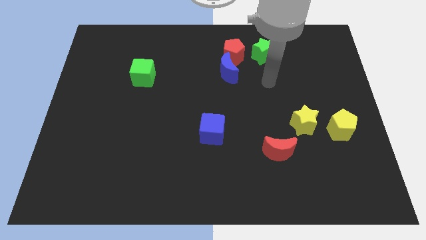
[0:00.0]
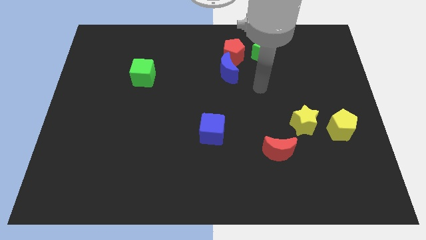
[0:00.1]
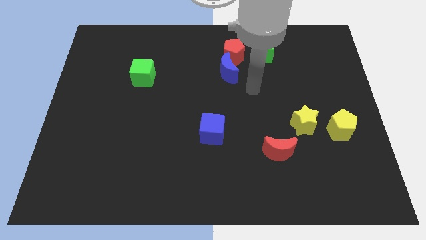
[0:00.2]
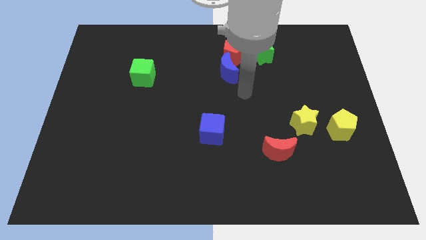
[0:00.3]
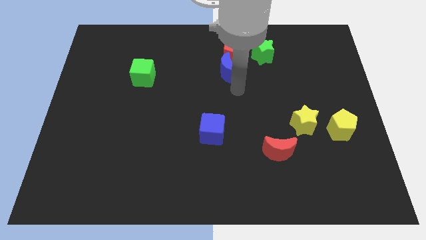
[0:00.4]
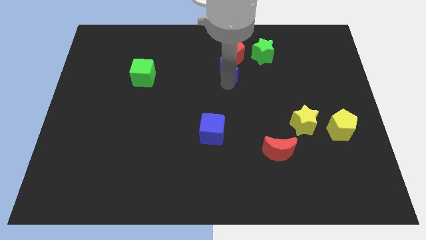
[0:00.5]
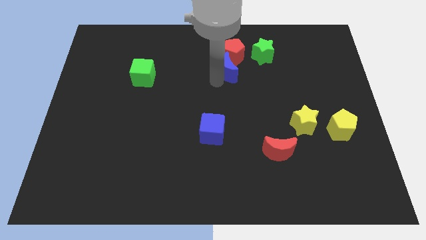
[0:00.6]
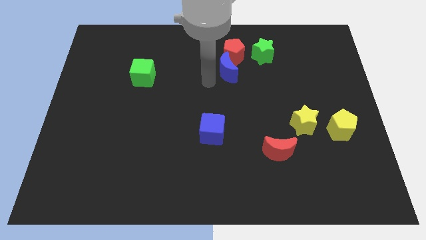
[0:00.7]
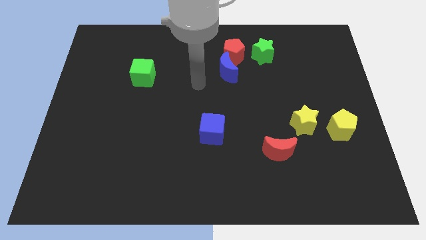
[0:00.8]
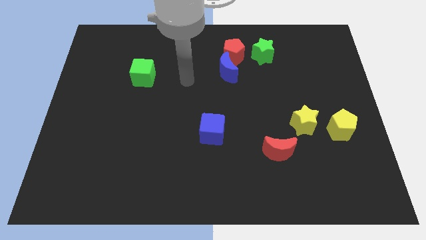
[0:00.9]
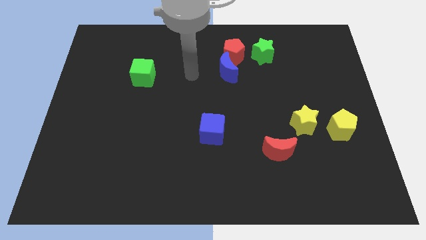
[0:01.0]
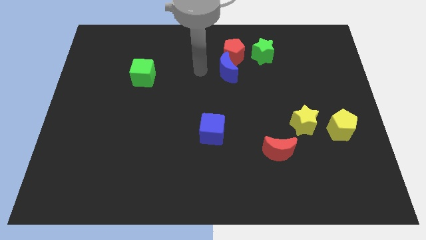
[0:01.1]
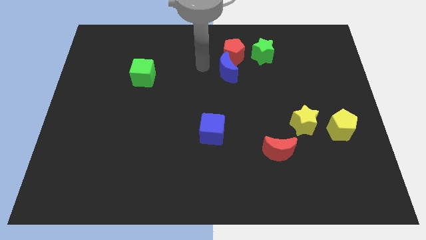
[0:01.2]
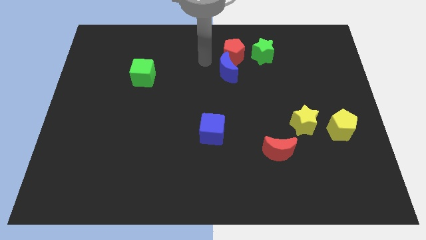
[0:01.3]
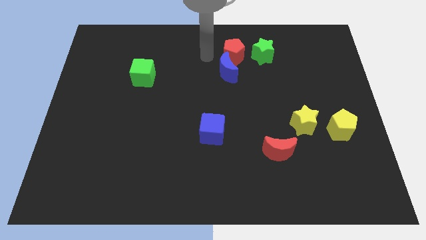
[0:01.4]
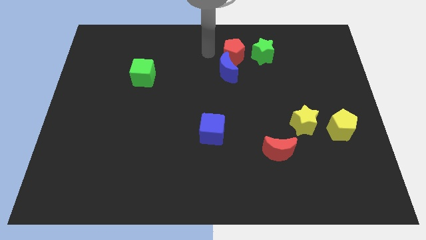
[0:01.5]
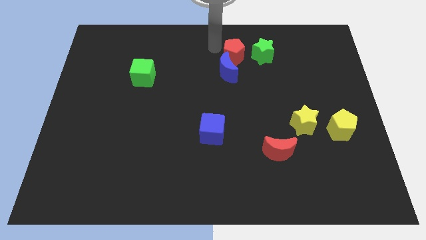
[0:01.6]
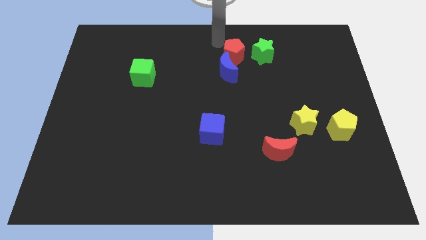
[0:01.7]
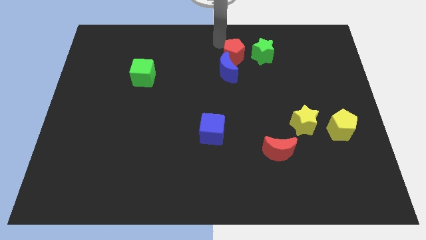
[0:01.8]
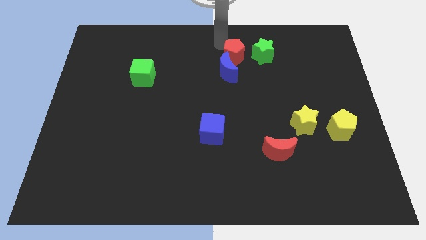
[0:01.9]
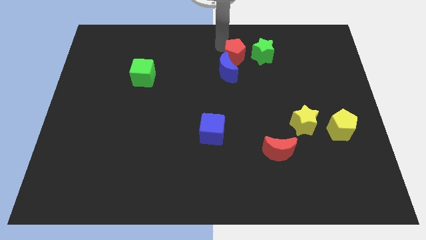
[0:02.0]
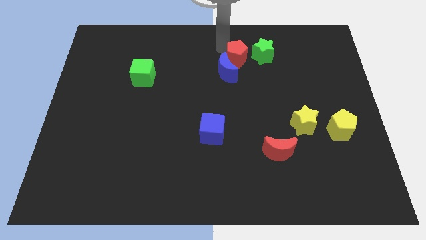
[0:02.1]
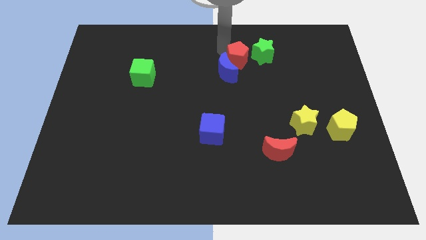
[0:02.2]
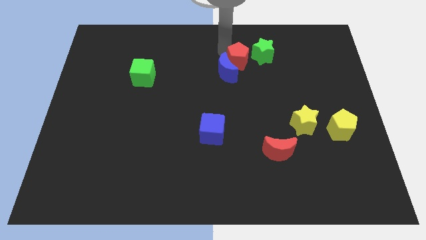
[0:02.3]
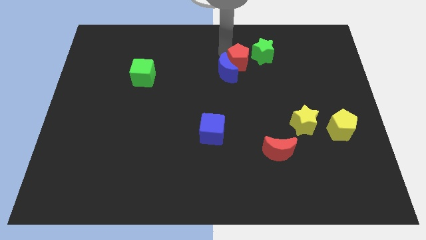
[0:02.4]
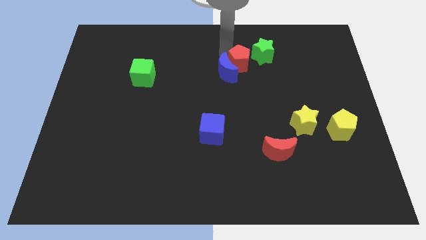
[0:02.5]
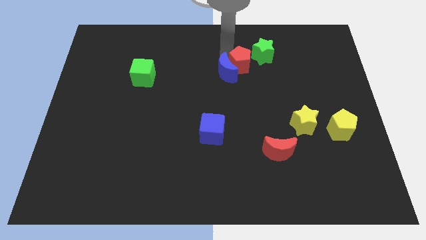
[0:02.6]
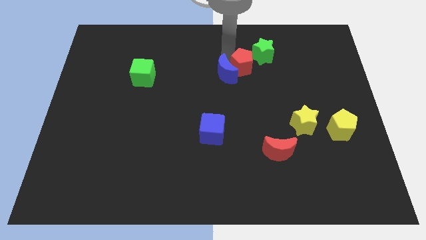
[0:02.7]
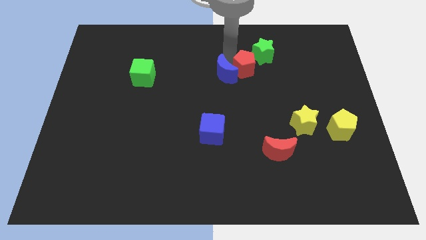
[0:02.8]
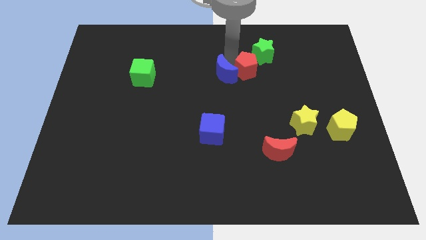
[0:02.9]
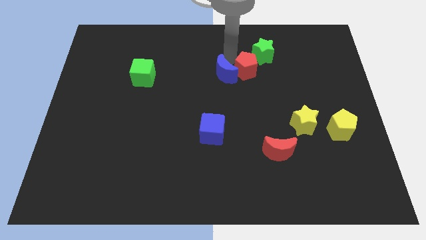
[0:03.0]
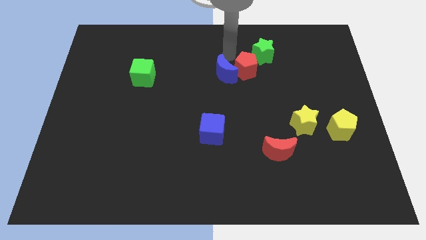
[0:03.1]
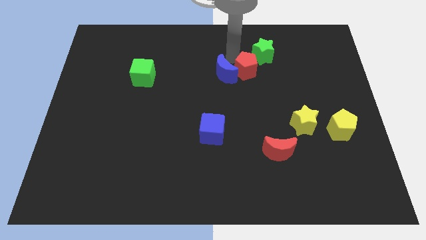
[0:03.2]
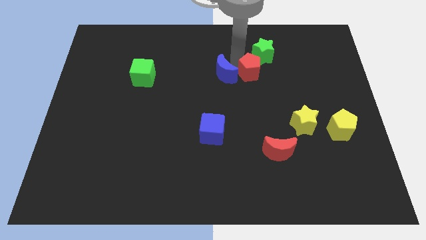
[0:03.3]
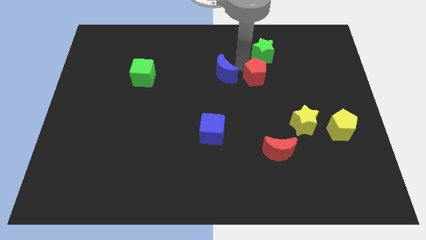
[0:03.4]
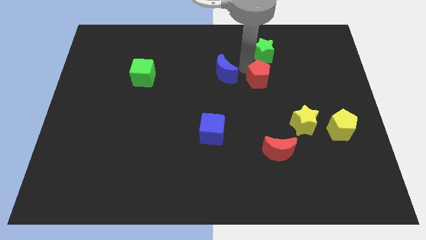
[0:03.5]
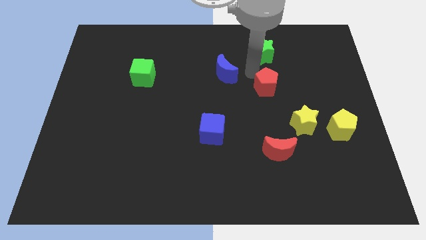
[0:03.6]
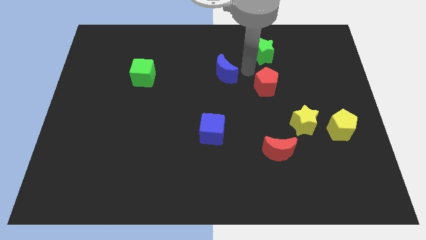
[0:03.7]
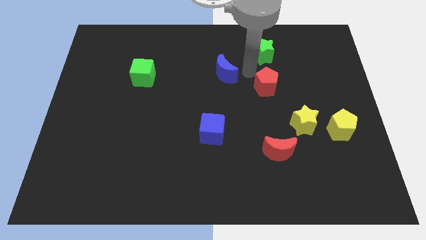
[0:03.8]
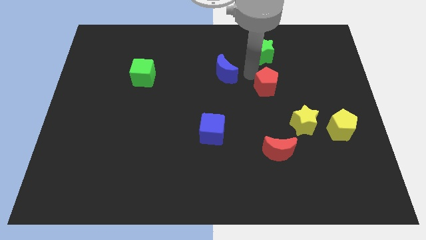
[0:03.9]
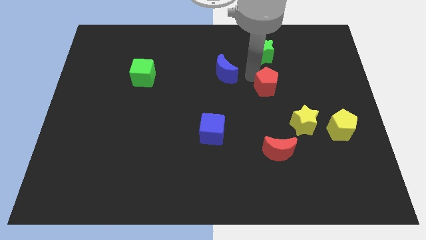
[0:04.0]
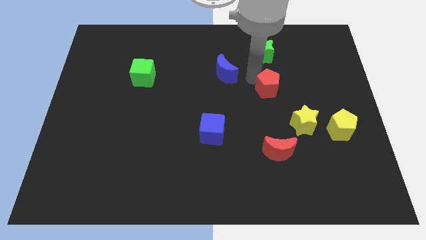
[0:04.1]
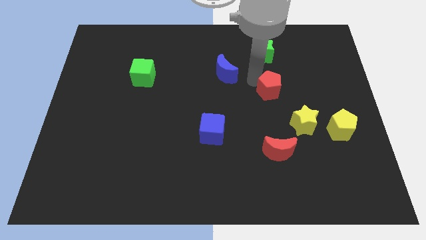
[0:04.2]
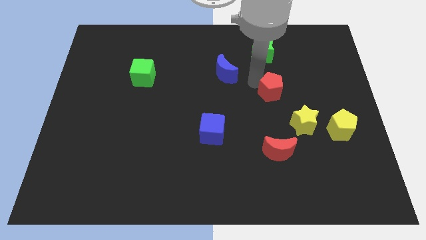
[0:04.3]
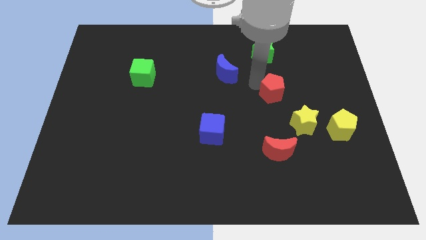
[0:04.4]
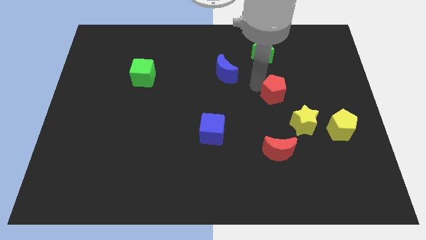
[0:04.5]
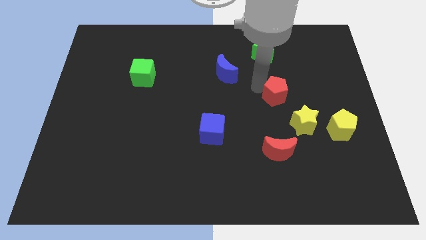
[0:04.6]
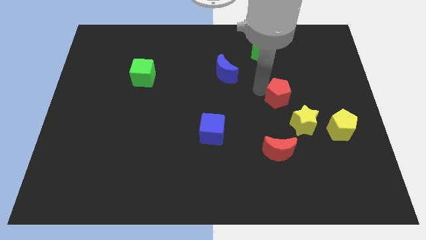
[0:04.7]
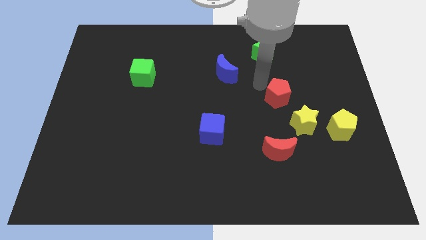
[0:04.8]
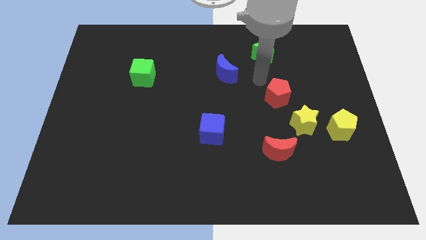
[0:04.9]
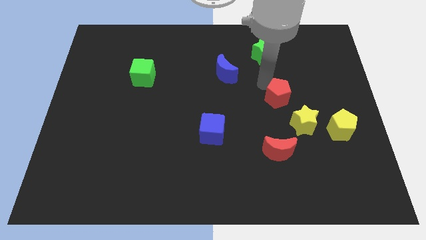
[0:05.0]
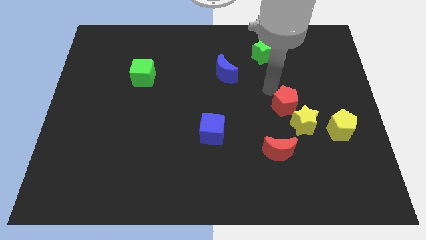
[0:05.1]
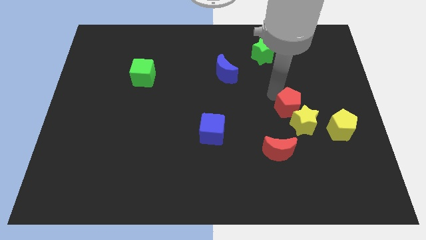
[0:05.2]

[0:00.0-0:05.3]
move the red pentagon to the yellow star

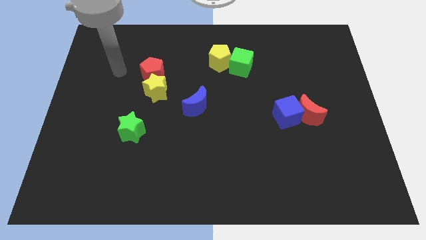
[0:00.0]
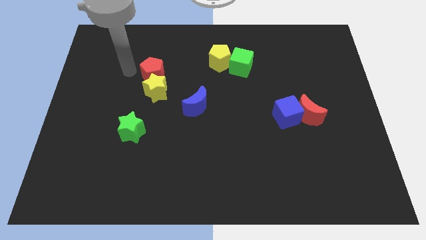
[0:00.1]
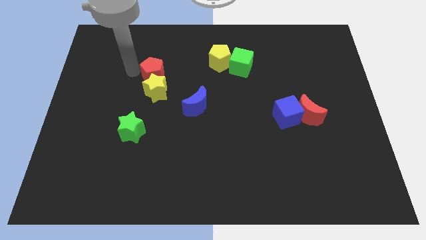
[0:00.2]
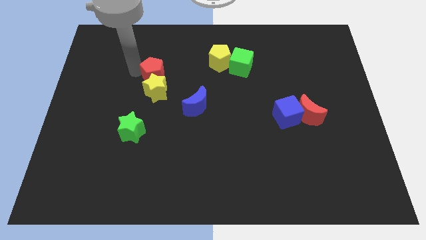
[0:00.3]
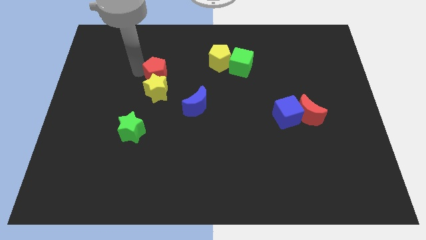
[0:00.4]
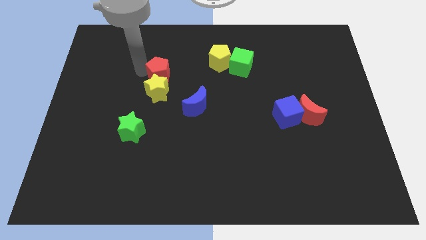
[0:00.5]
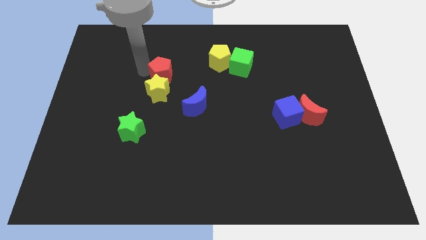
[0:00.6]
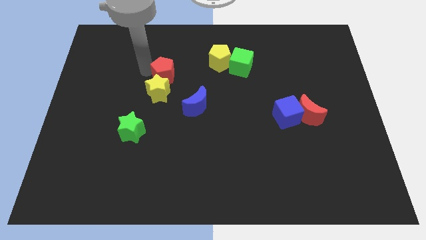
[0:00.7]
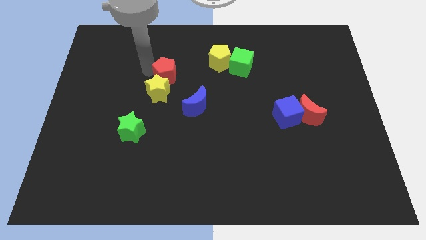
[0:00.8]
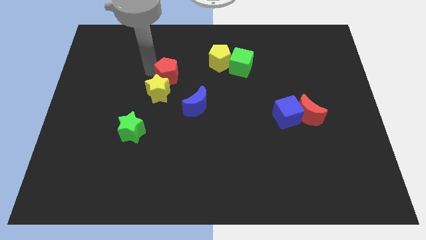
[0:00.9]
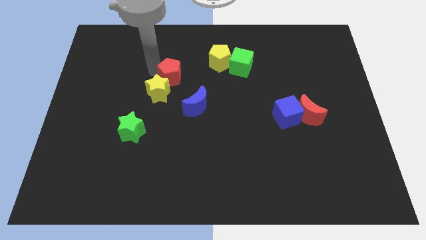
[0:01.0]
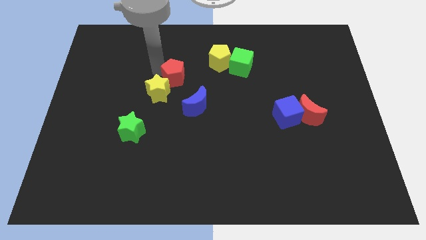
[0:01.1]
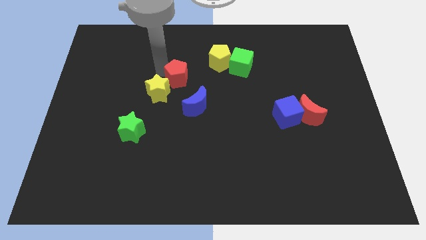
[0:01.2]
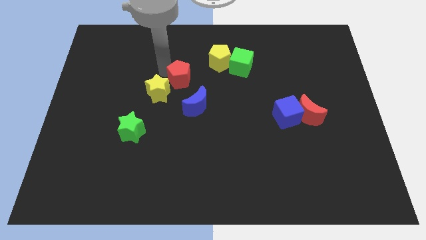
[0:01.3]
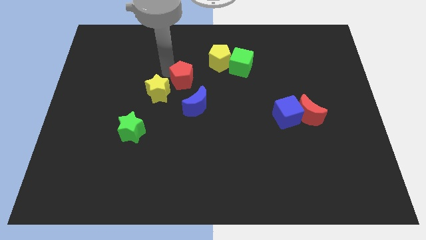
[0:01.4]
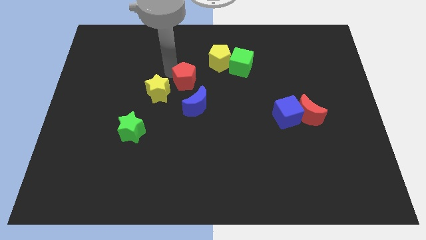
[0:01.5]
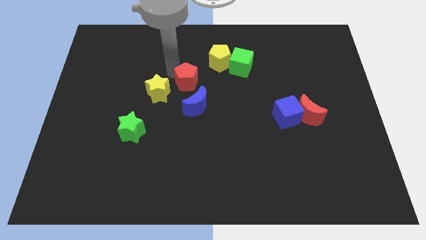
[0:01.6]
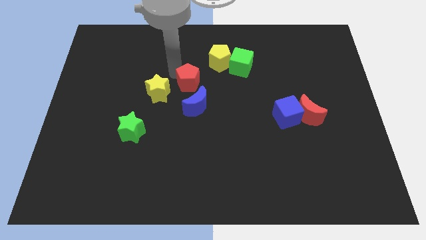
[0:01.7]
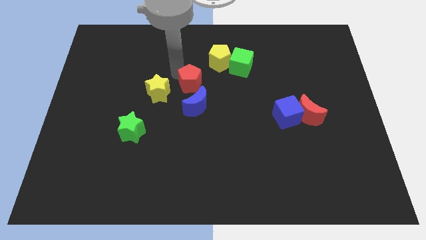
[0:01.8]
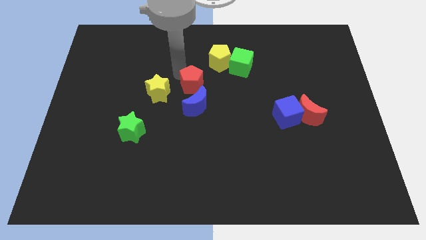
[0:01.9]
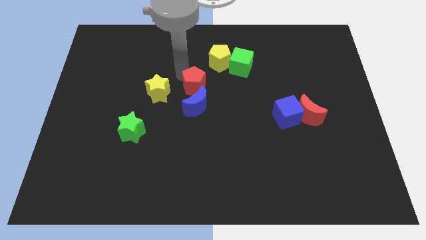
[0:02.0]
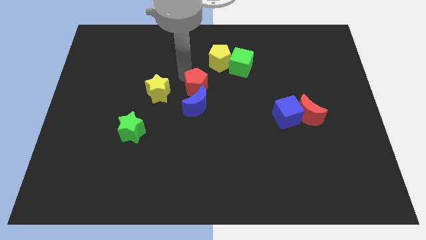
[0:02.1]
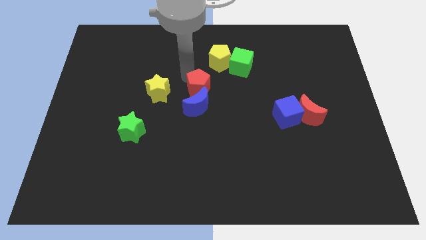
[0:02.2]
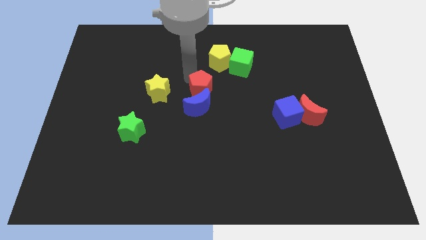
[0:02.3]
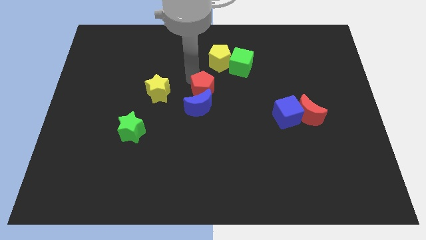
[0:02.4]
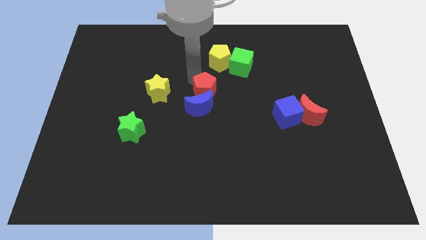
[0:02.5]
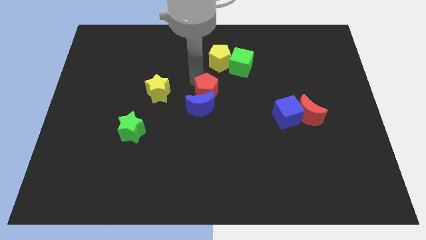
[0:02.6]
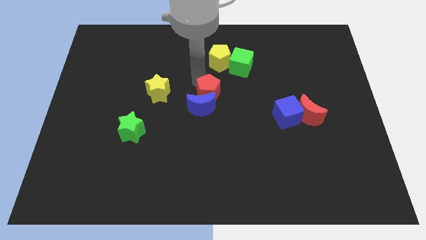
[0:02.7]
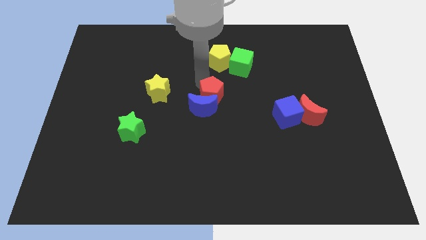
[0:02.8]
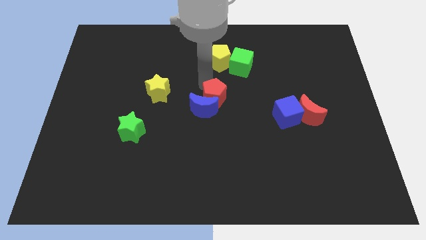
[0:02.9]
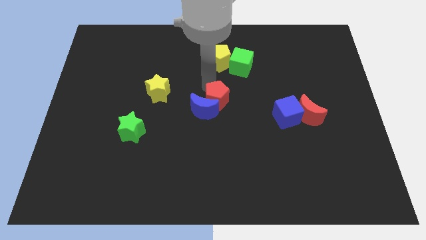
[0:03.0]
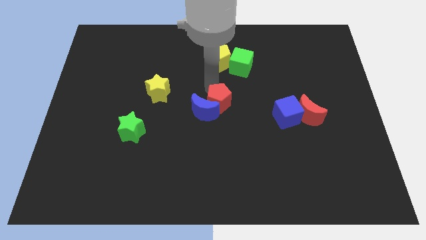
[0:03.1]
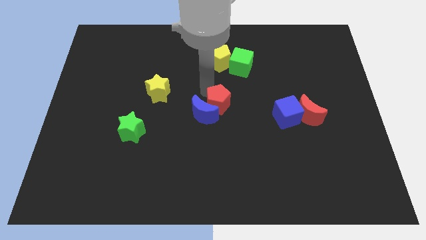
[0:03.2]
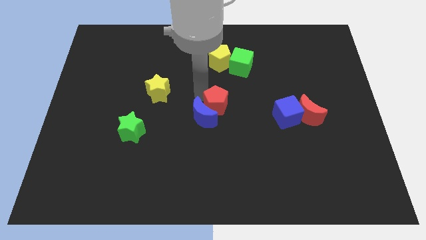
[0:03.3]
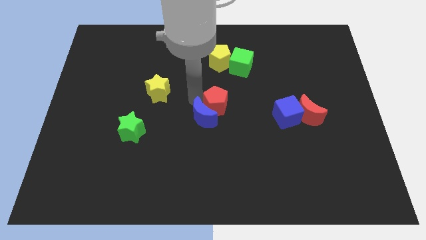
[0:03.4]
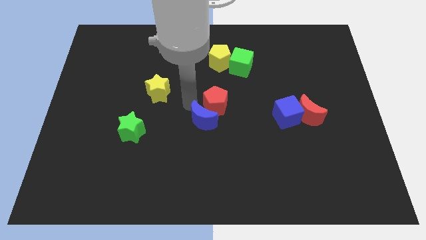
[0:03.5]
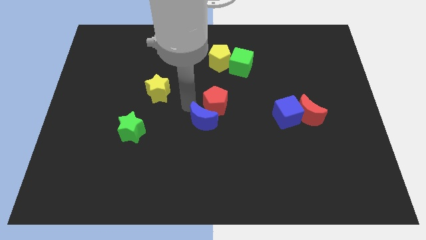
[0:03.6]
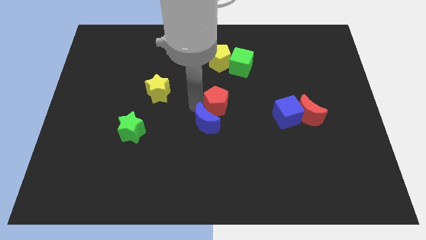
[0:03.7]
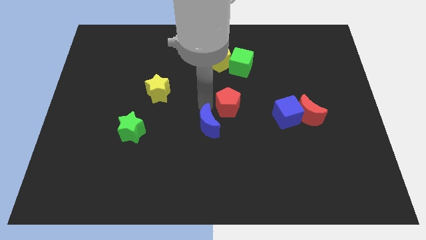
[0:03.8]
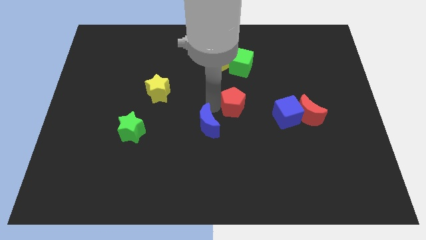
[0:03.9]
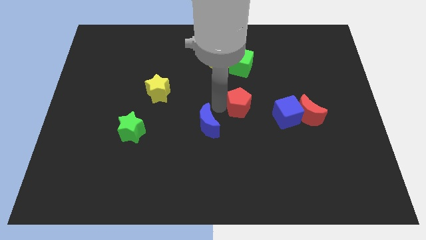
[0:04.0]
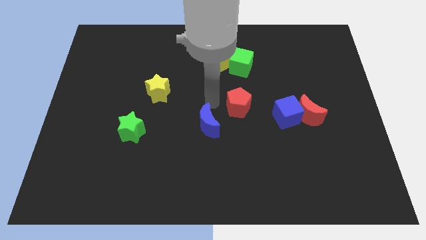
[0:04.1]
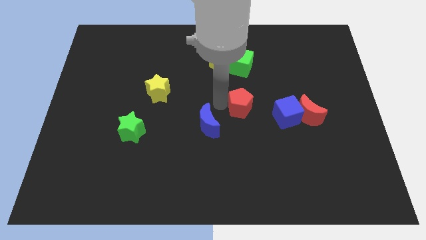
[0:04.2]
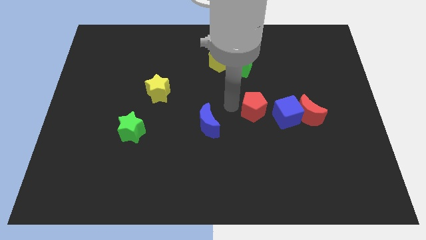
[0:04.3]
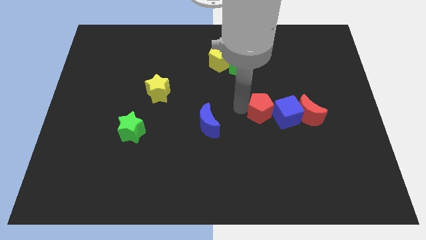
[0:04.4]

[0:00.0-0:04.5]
put the red pentagon towards the blue cube
